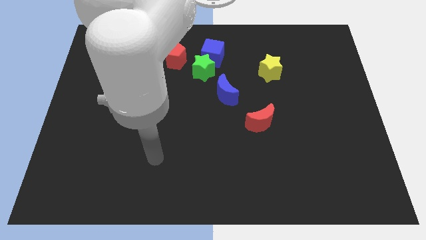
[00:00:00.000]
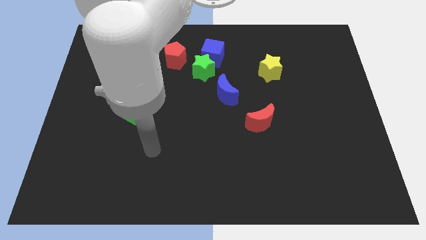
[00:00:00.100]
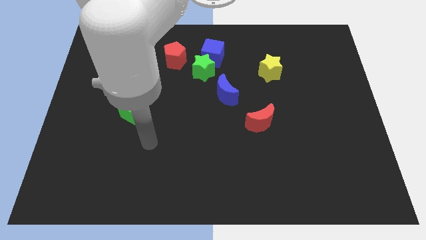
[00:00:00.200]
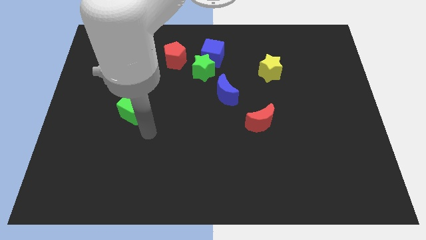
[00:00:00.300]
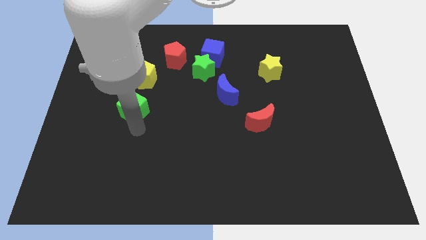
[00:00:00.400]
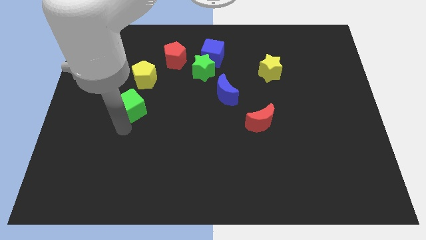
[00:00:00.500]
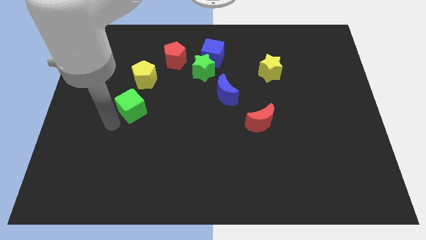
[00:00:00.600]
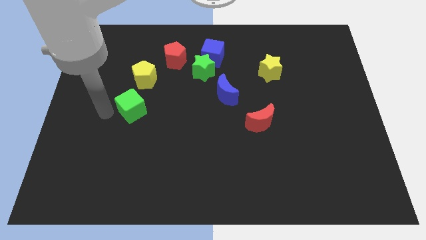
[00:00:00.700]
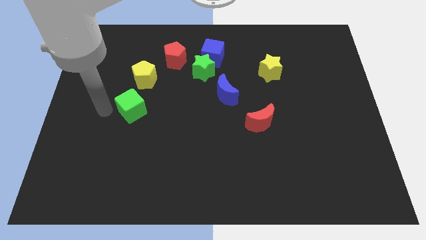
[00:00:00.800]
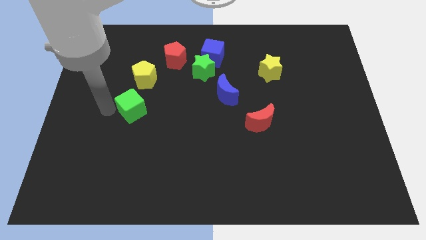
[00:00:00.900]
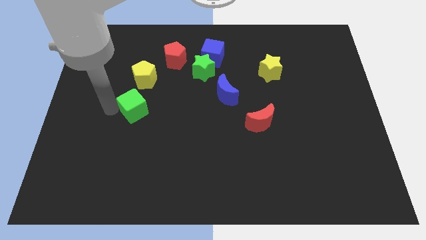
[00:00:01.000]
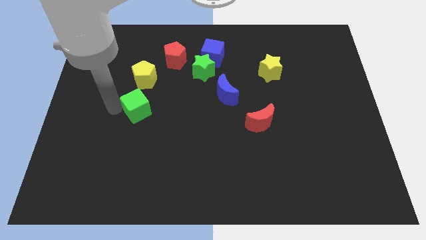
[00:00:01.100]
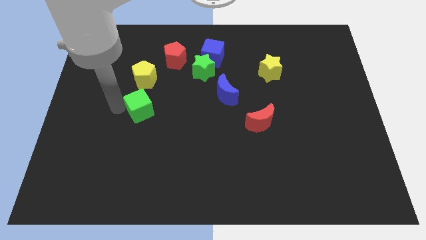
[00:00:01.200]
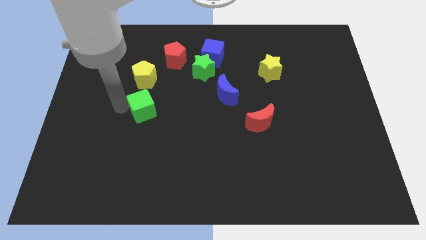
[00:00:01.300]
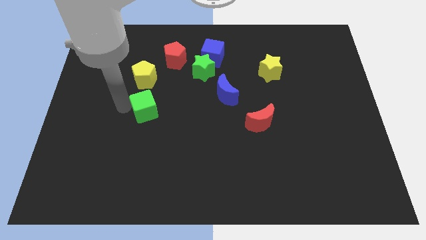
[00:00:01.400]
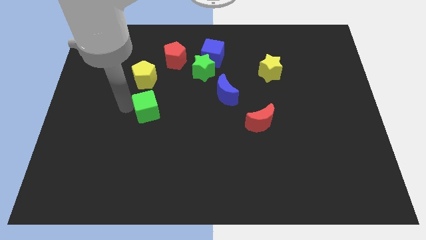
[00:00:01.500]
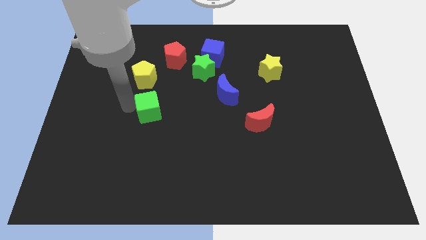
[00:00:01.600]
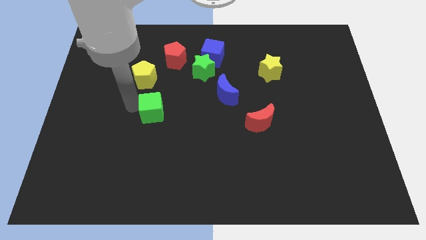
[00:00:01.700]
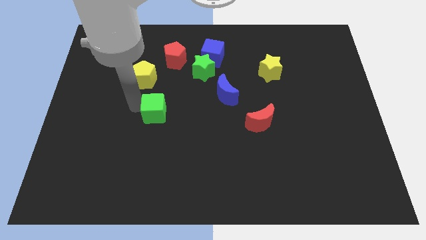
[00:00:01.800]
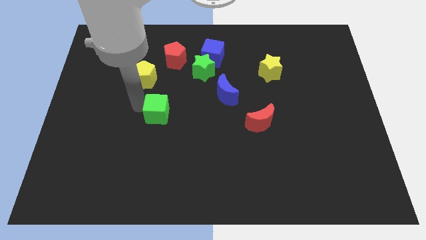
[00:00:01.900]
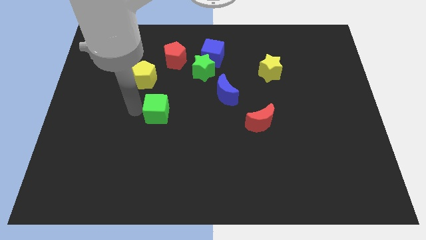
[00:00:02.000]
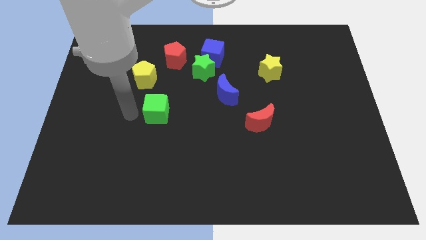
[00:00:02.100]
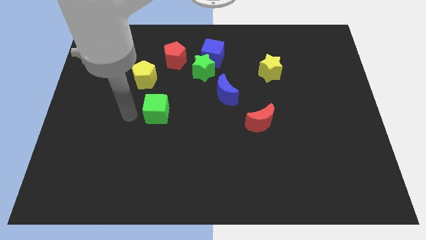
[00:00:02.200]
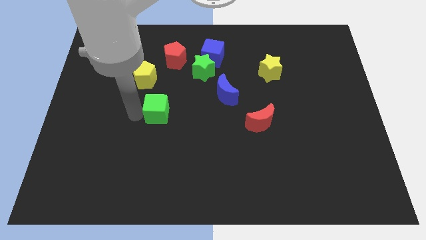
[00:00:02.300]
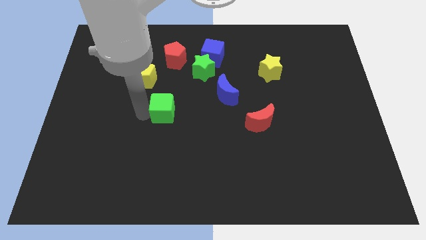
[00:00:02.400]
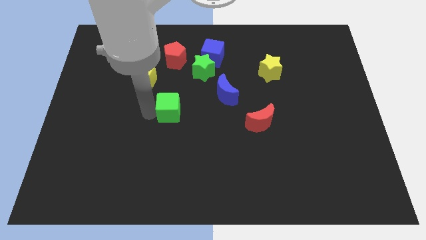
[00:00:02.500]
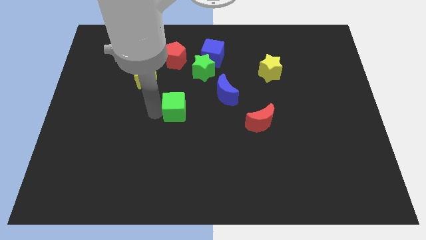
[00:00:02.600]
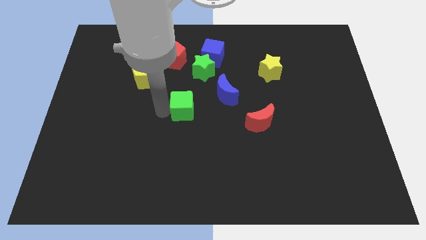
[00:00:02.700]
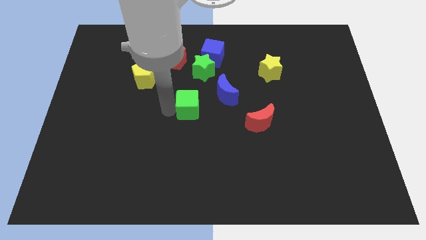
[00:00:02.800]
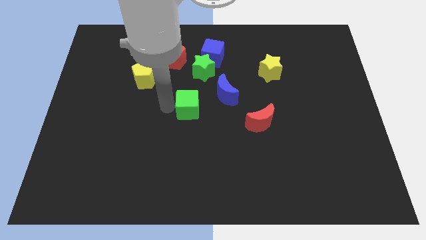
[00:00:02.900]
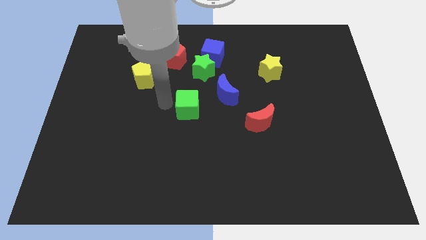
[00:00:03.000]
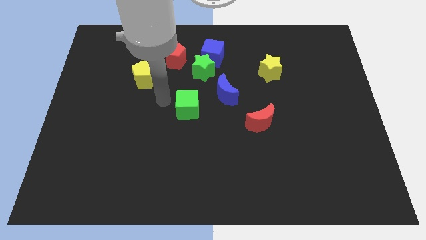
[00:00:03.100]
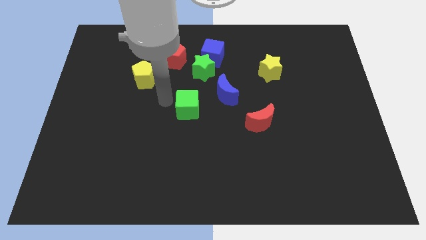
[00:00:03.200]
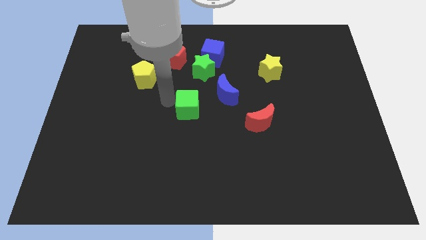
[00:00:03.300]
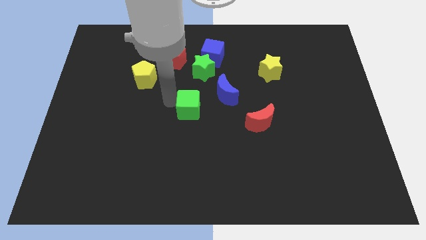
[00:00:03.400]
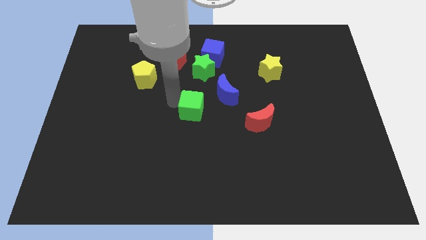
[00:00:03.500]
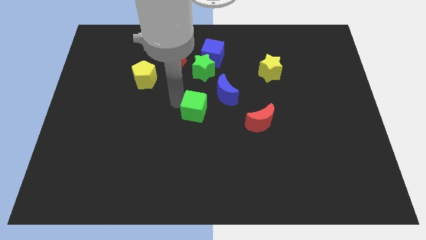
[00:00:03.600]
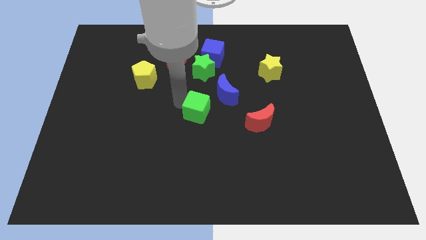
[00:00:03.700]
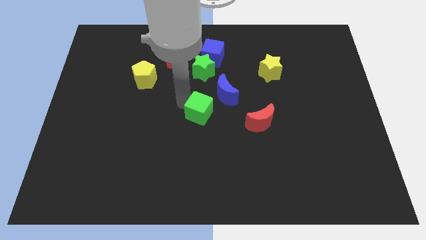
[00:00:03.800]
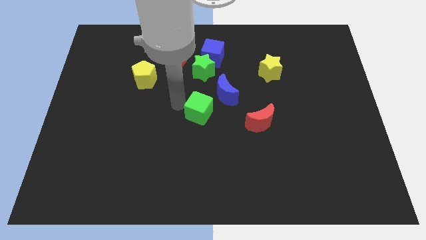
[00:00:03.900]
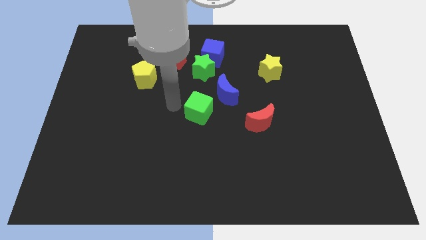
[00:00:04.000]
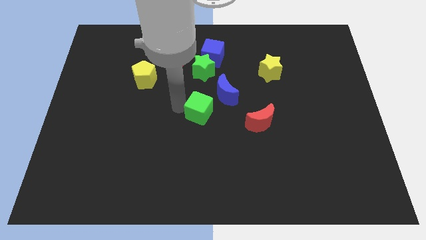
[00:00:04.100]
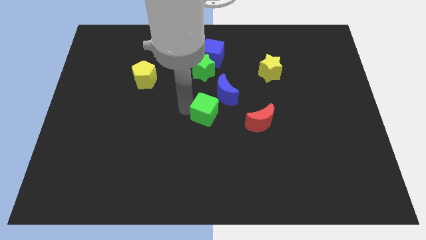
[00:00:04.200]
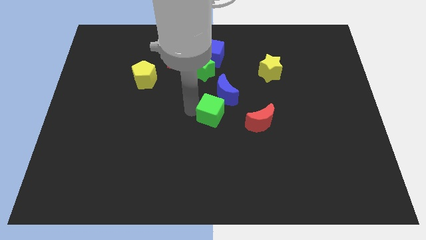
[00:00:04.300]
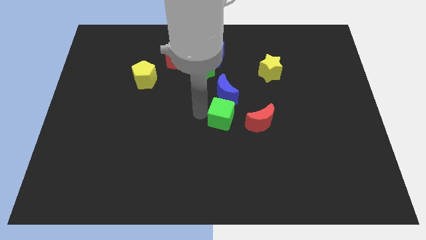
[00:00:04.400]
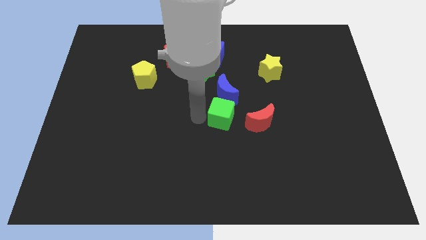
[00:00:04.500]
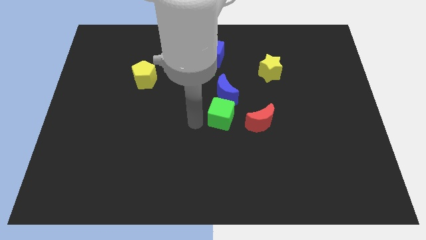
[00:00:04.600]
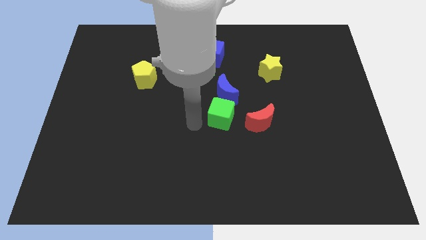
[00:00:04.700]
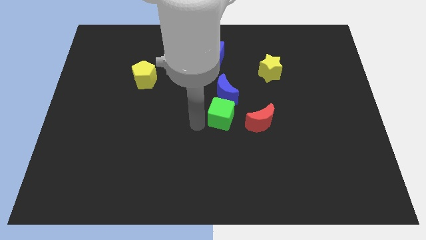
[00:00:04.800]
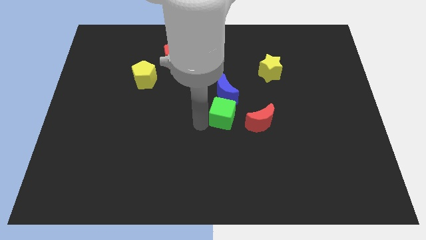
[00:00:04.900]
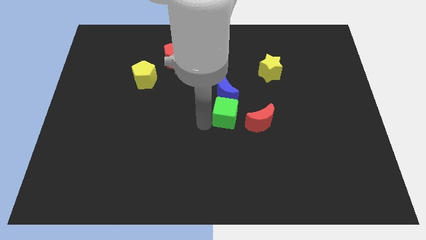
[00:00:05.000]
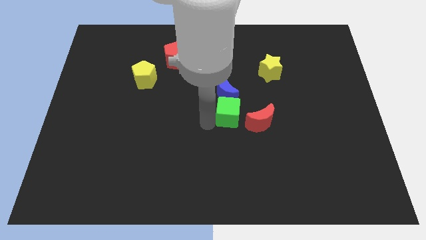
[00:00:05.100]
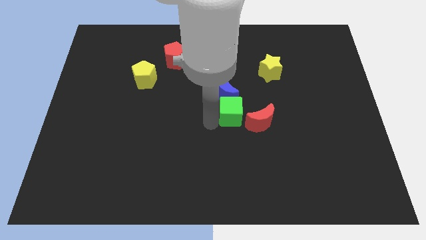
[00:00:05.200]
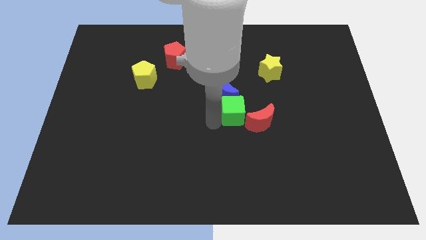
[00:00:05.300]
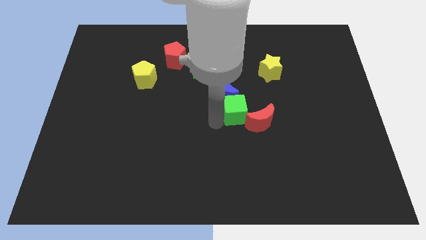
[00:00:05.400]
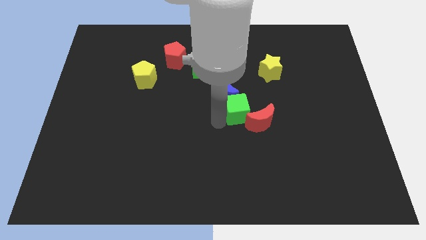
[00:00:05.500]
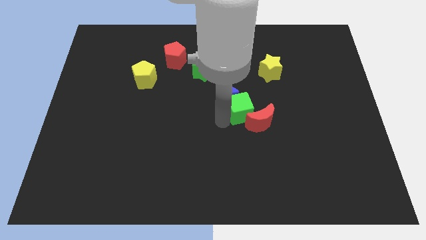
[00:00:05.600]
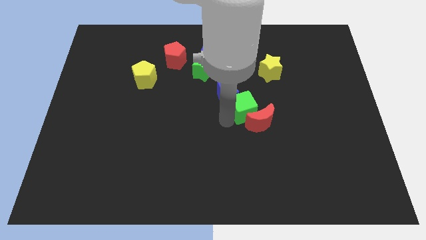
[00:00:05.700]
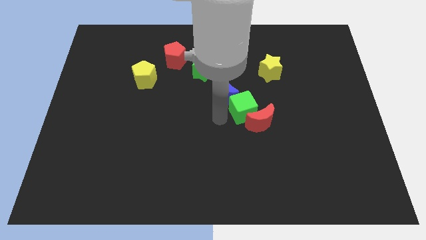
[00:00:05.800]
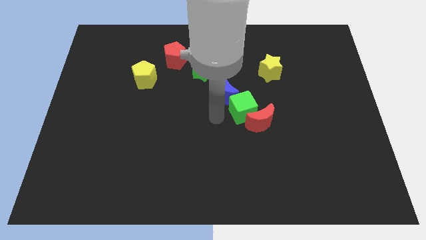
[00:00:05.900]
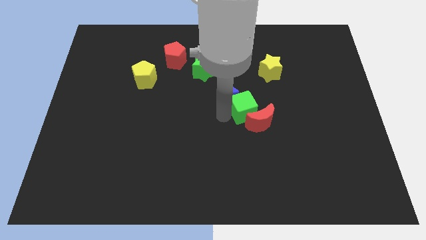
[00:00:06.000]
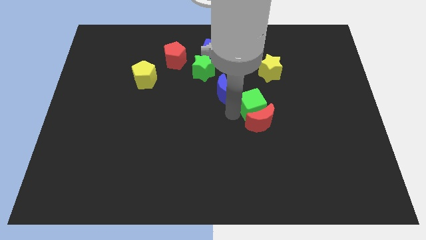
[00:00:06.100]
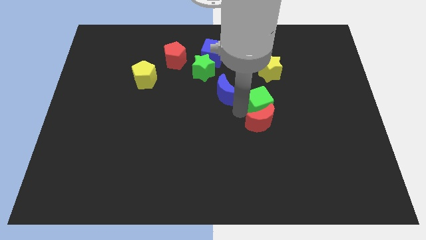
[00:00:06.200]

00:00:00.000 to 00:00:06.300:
put the green cube below the yellow star

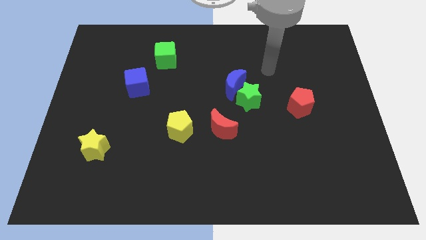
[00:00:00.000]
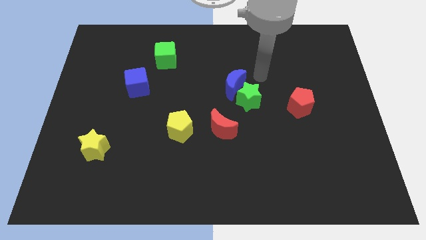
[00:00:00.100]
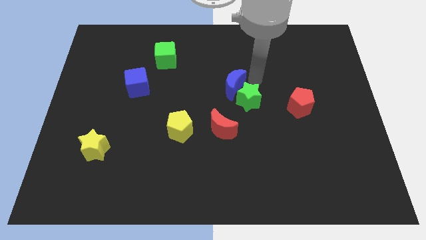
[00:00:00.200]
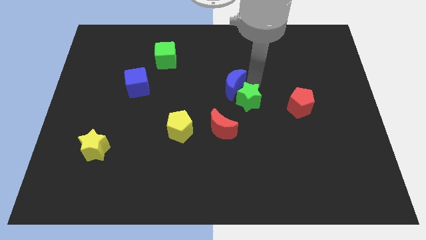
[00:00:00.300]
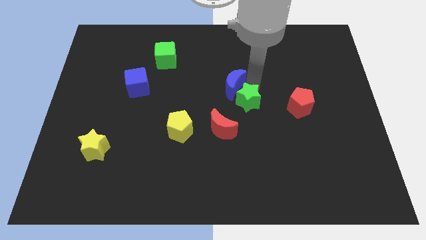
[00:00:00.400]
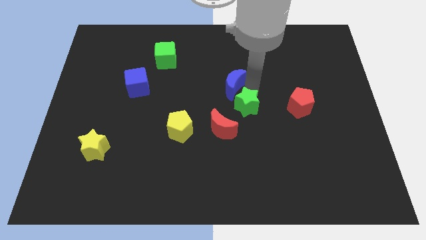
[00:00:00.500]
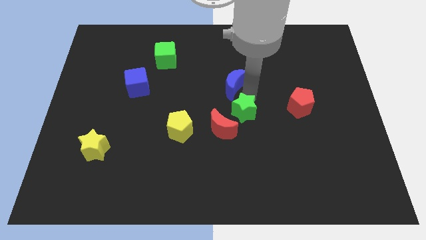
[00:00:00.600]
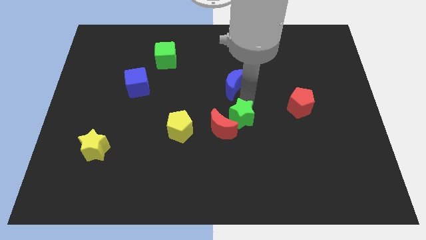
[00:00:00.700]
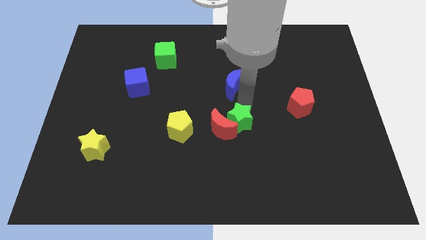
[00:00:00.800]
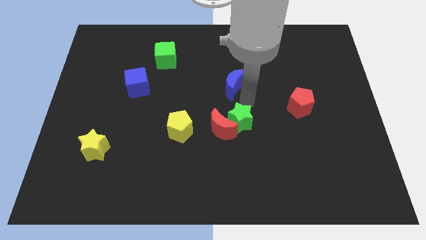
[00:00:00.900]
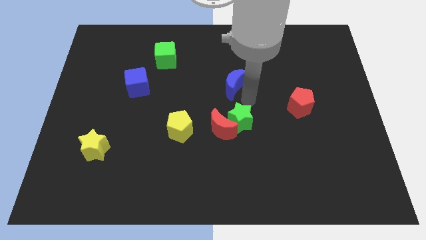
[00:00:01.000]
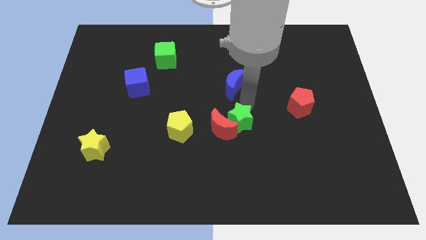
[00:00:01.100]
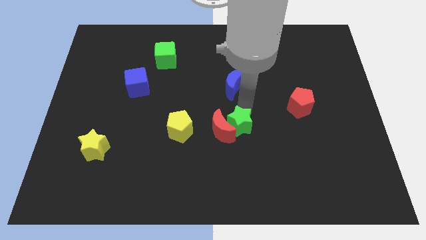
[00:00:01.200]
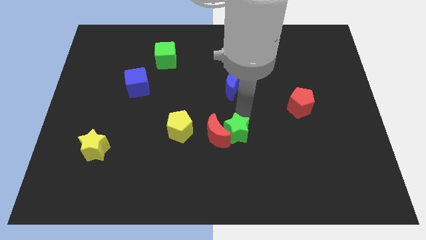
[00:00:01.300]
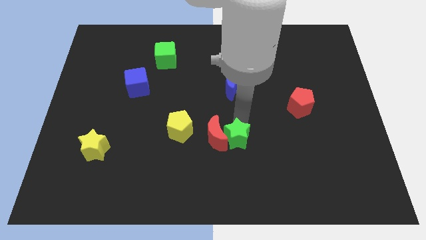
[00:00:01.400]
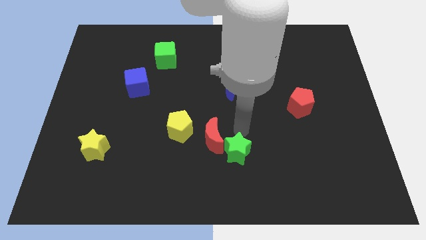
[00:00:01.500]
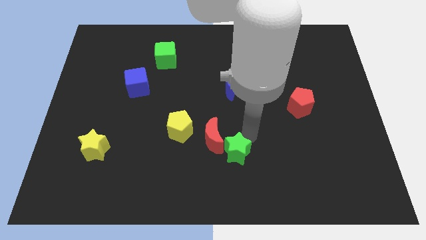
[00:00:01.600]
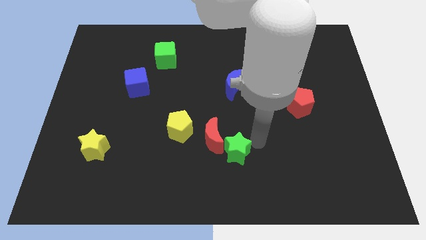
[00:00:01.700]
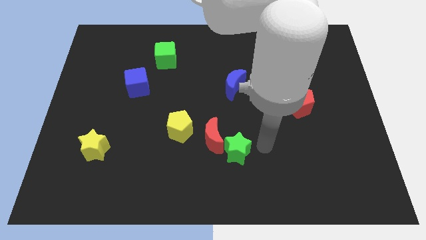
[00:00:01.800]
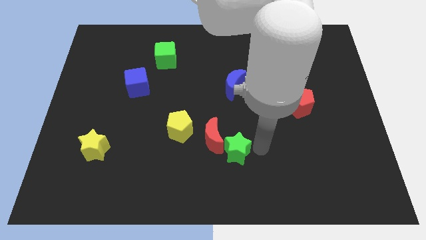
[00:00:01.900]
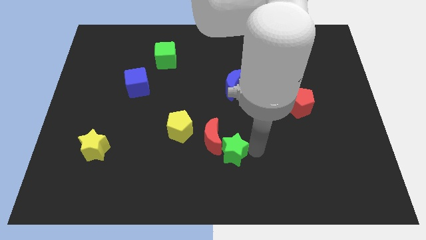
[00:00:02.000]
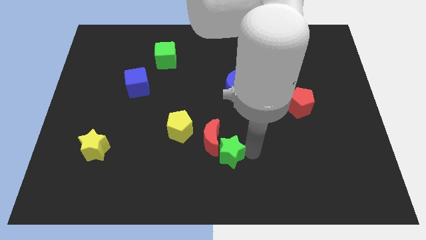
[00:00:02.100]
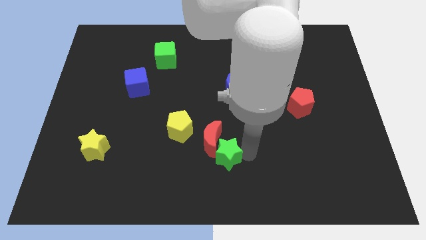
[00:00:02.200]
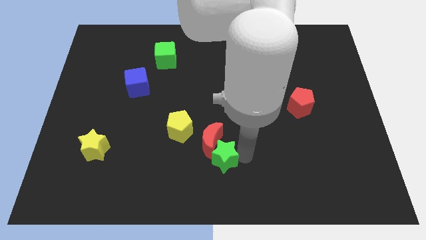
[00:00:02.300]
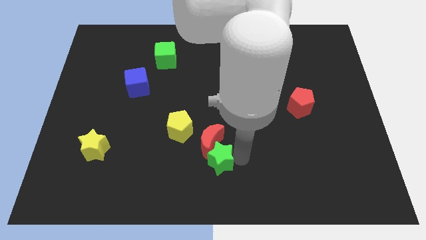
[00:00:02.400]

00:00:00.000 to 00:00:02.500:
put the green star diagonally down and to the left of the red moon
